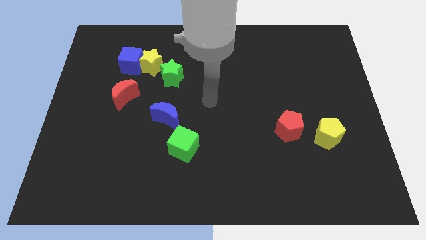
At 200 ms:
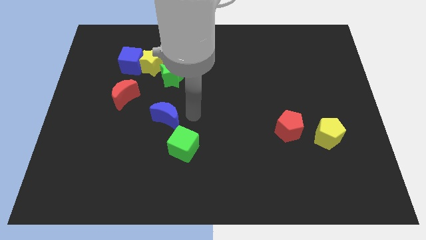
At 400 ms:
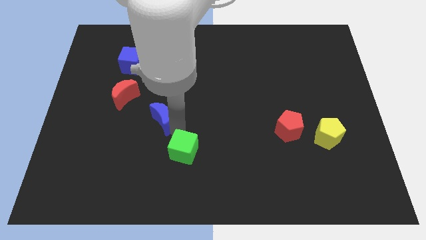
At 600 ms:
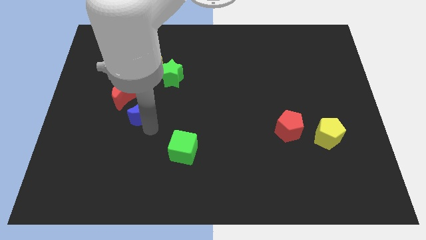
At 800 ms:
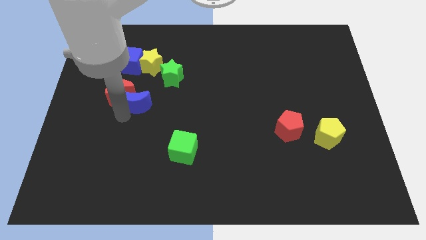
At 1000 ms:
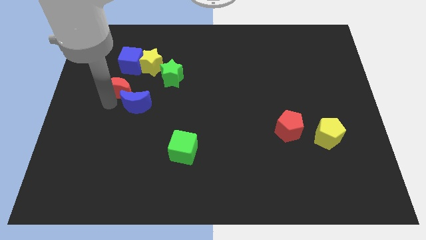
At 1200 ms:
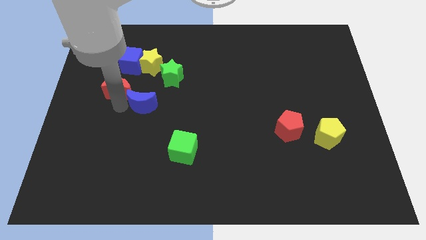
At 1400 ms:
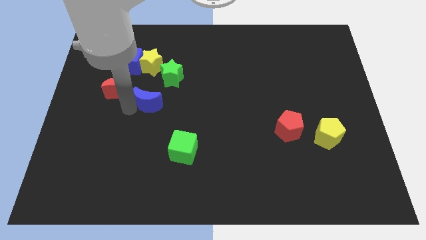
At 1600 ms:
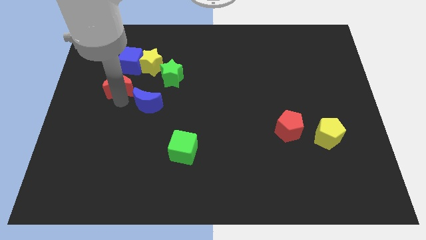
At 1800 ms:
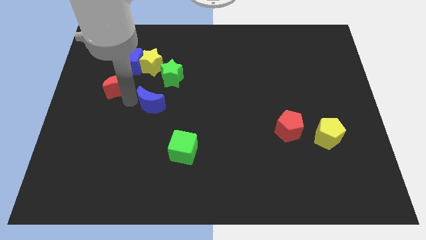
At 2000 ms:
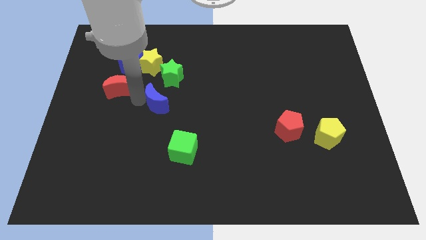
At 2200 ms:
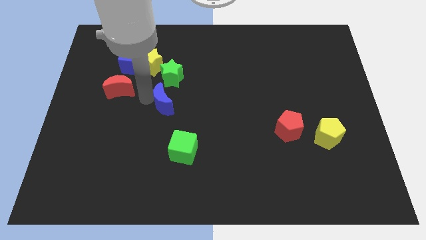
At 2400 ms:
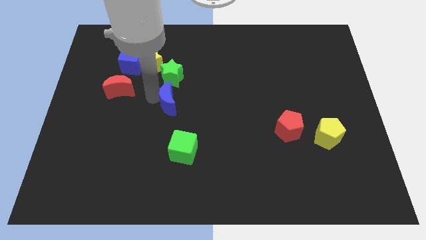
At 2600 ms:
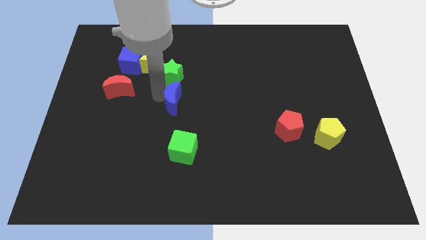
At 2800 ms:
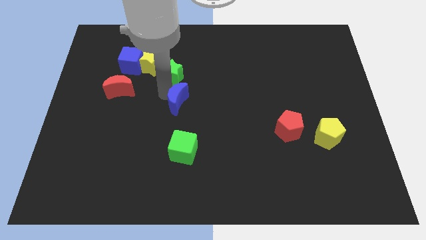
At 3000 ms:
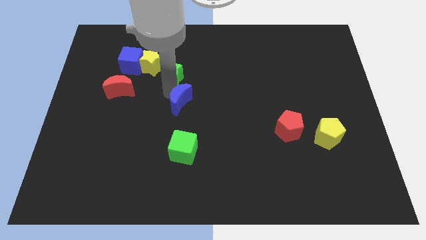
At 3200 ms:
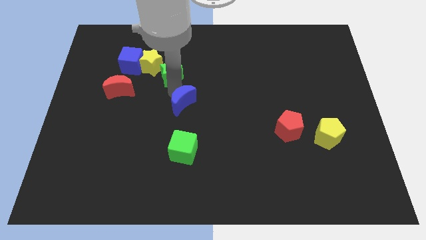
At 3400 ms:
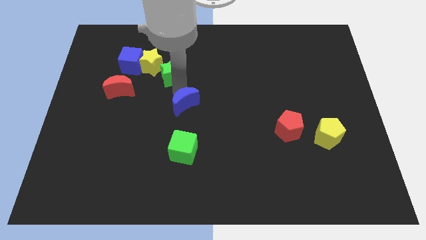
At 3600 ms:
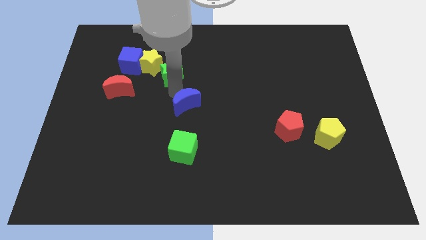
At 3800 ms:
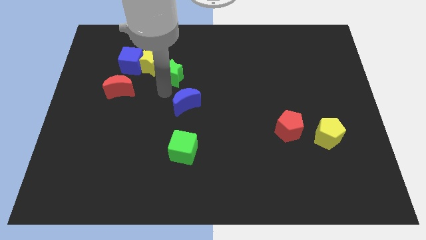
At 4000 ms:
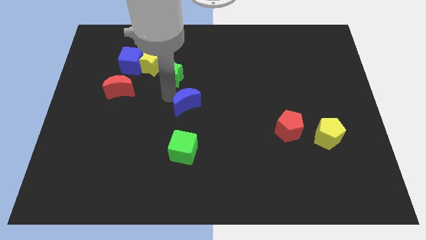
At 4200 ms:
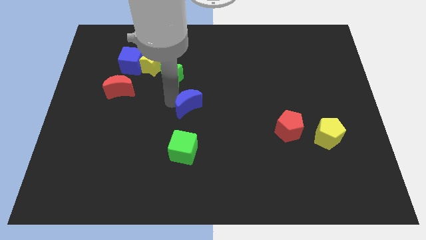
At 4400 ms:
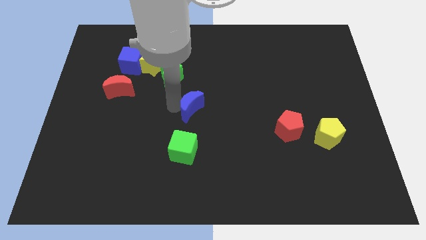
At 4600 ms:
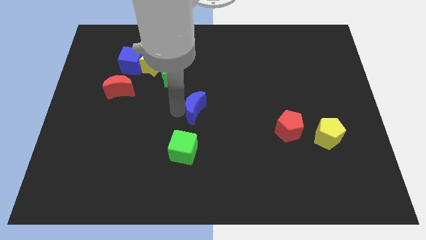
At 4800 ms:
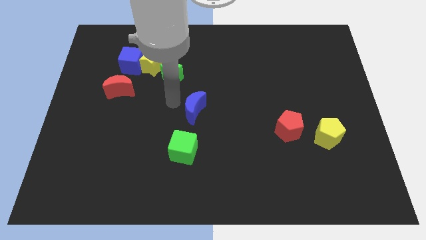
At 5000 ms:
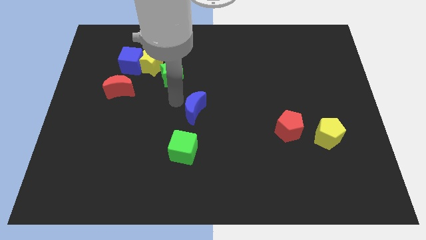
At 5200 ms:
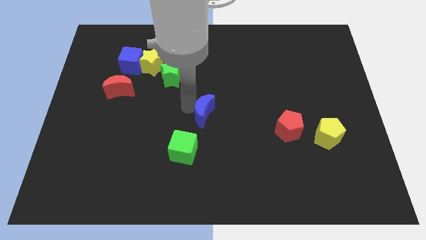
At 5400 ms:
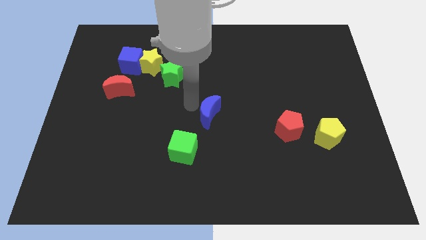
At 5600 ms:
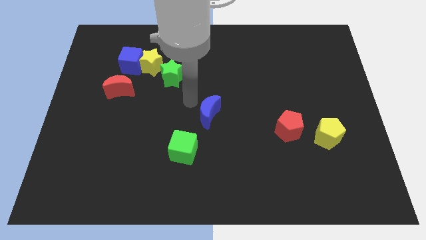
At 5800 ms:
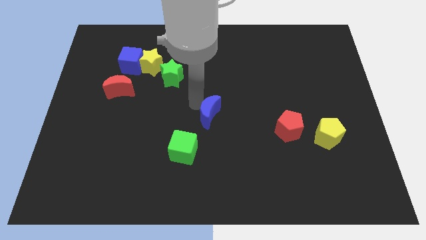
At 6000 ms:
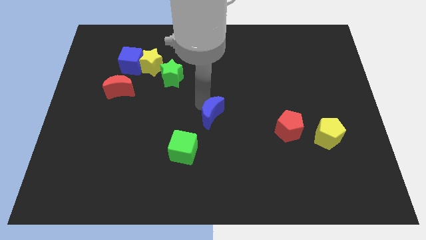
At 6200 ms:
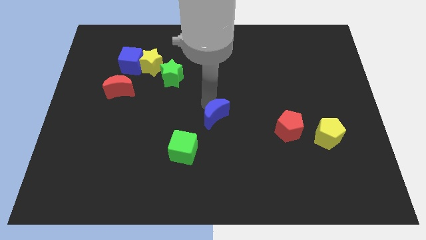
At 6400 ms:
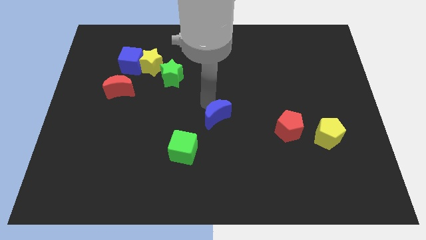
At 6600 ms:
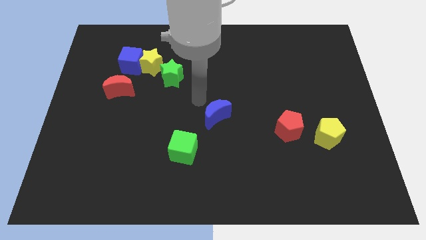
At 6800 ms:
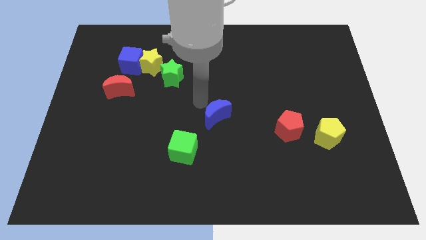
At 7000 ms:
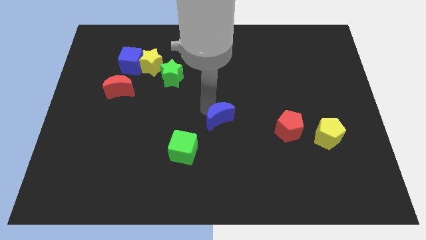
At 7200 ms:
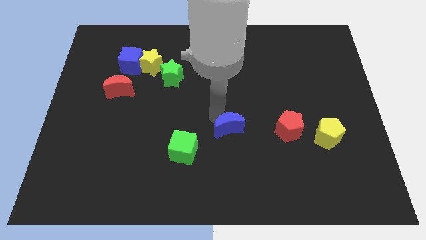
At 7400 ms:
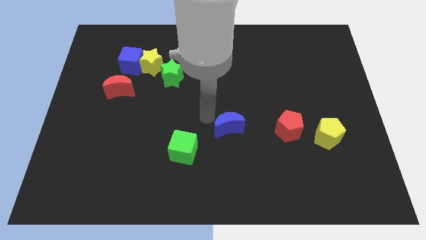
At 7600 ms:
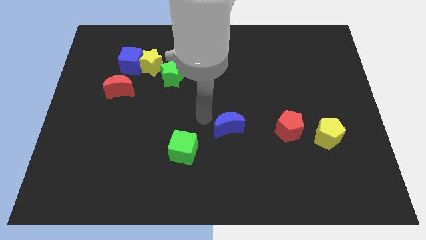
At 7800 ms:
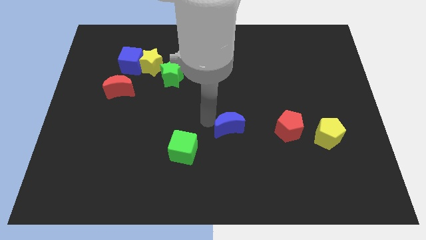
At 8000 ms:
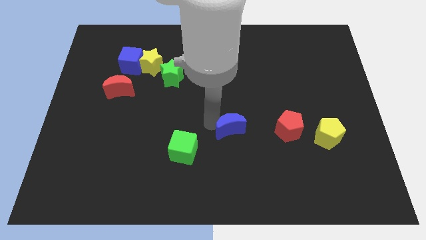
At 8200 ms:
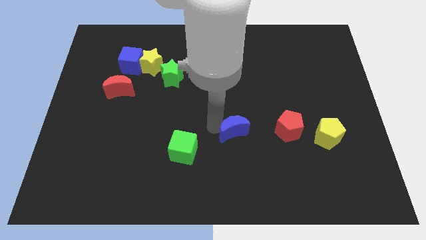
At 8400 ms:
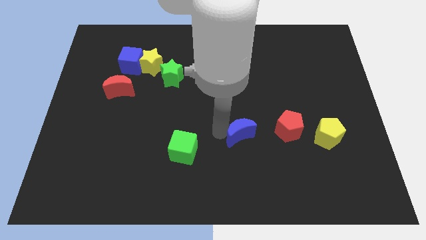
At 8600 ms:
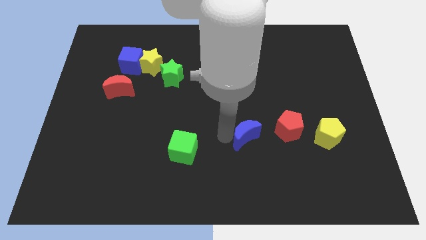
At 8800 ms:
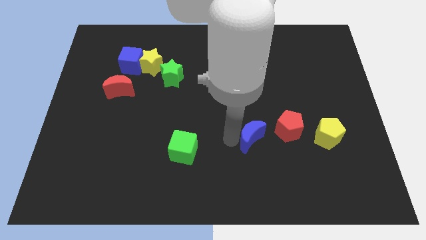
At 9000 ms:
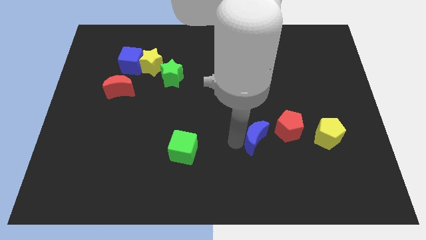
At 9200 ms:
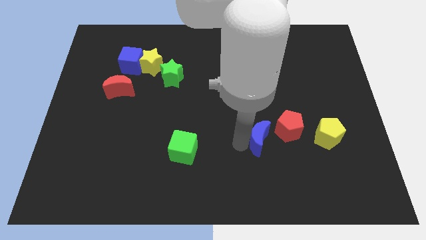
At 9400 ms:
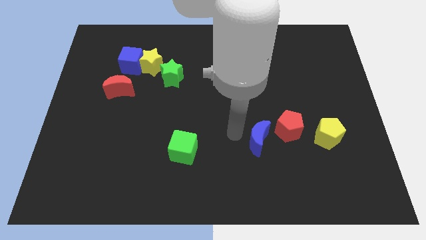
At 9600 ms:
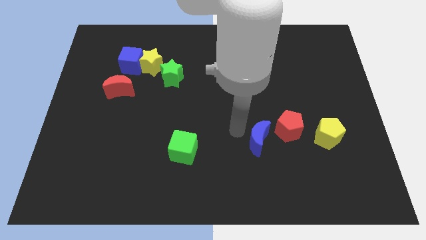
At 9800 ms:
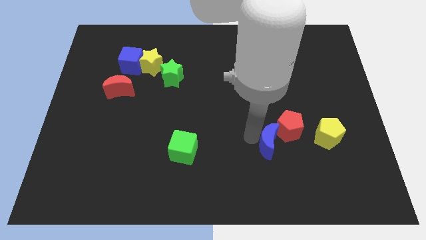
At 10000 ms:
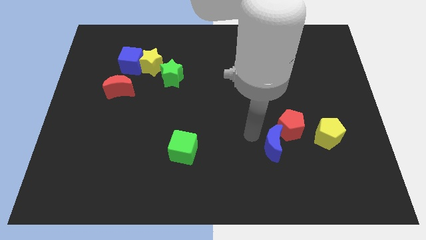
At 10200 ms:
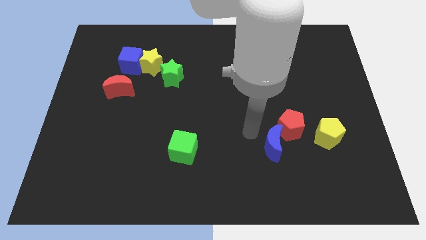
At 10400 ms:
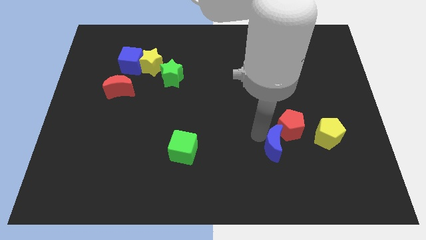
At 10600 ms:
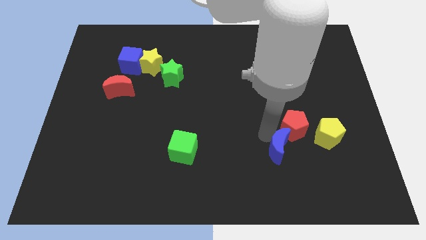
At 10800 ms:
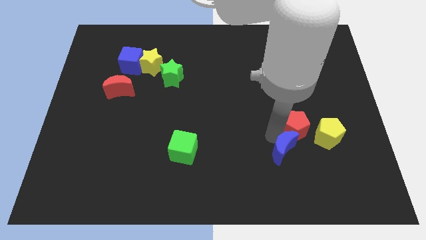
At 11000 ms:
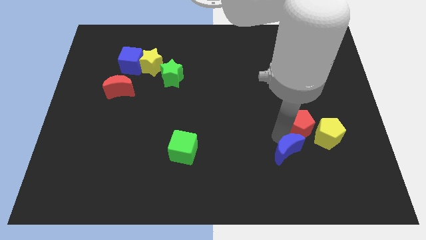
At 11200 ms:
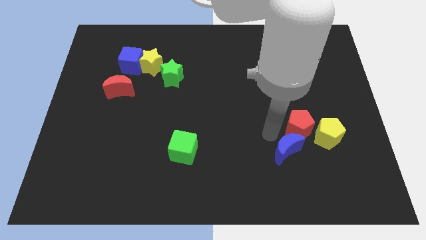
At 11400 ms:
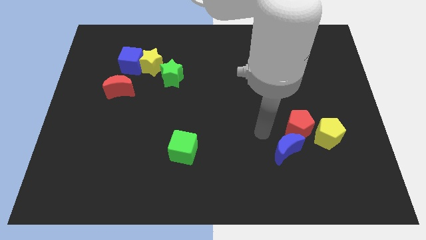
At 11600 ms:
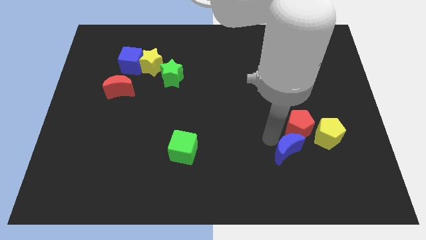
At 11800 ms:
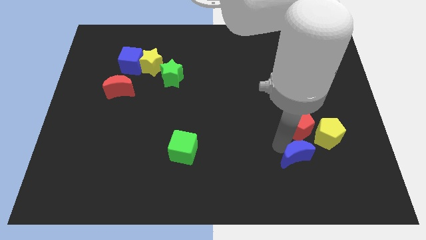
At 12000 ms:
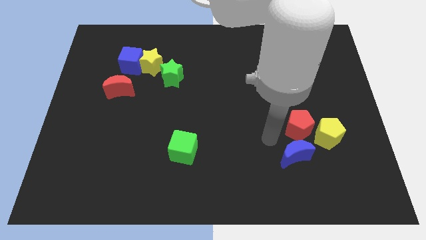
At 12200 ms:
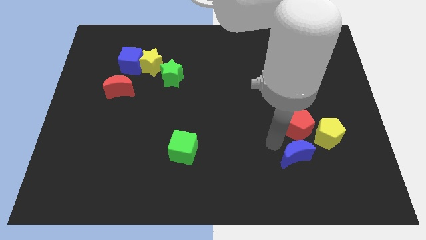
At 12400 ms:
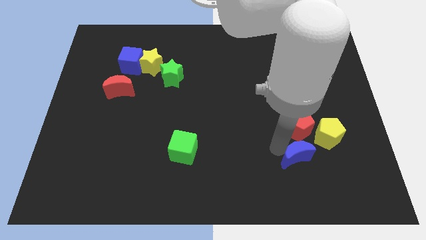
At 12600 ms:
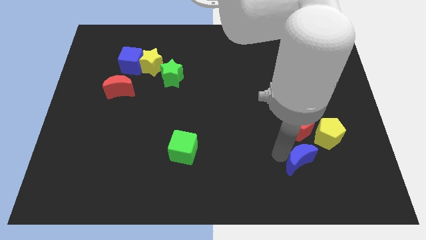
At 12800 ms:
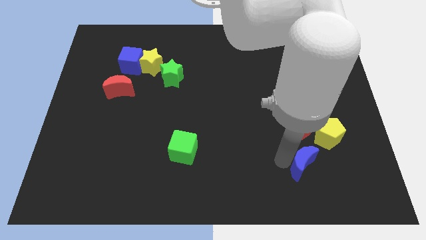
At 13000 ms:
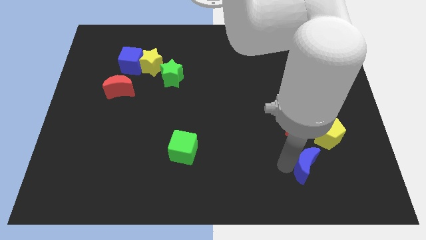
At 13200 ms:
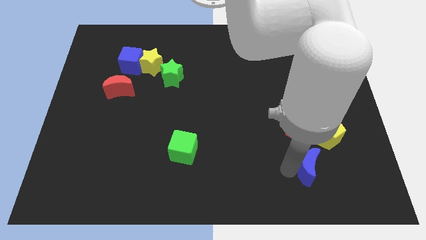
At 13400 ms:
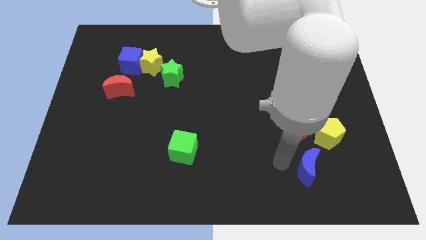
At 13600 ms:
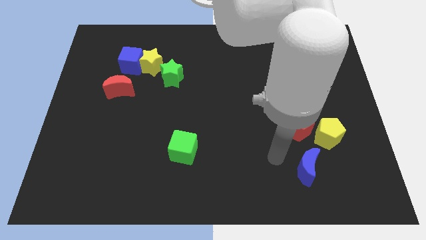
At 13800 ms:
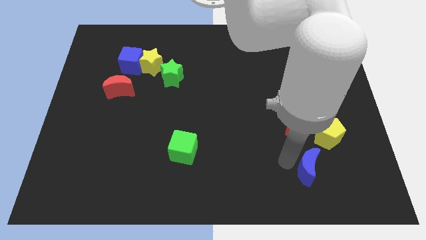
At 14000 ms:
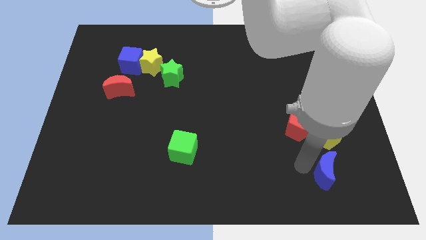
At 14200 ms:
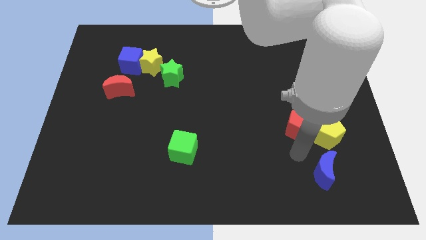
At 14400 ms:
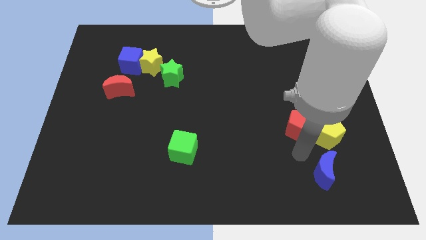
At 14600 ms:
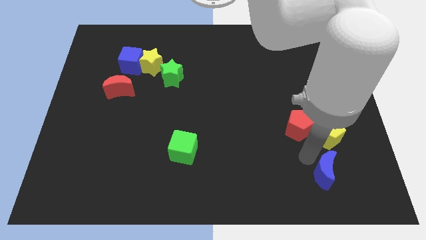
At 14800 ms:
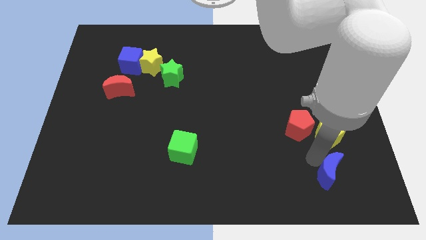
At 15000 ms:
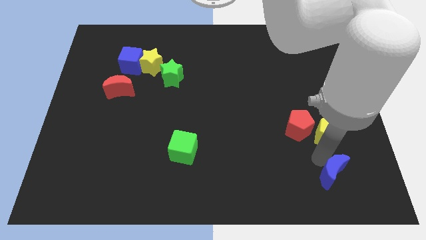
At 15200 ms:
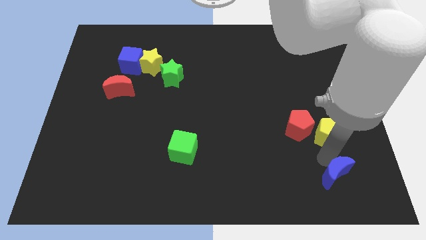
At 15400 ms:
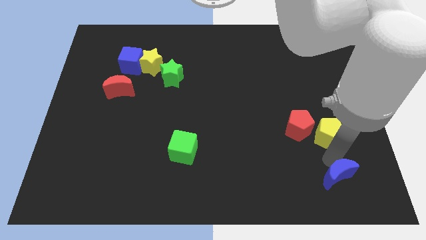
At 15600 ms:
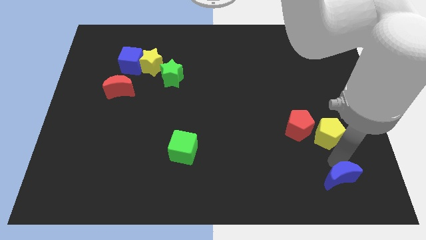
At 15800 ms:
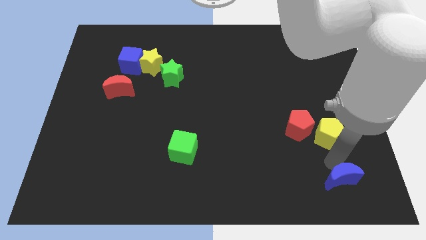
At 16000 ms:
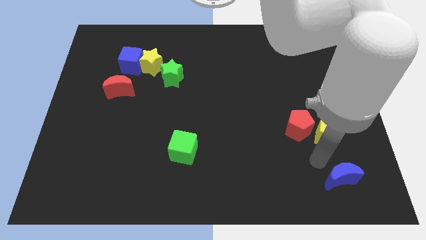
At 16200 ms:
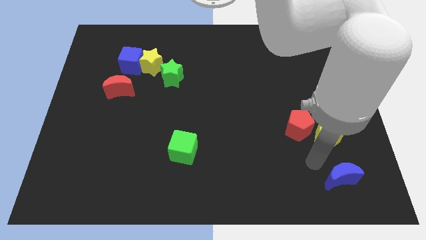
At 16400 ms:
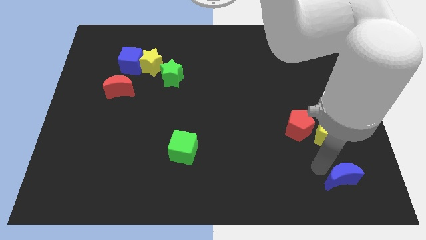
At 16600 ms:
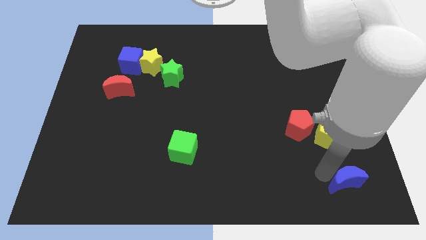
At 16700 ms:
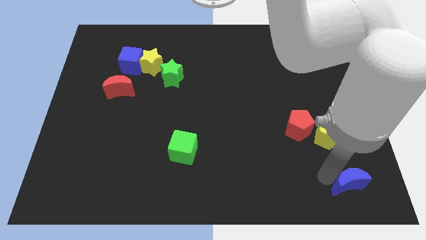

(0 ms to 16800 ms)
put the blue moon to the bottom right of the board
